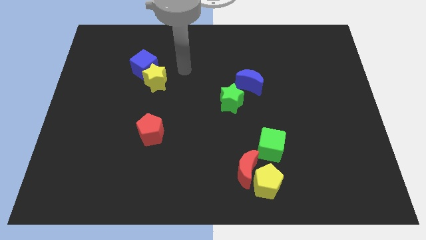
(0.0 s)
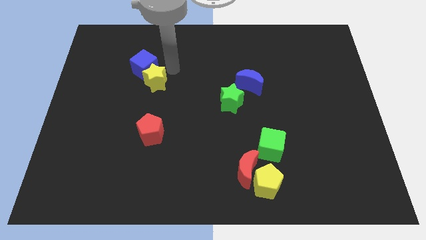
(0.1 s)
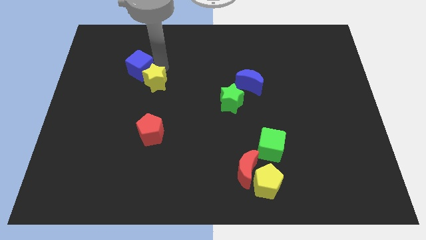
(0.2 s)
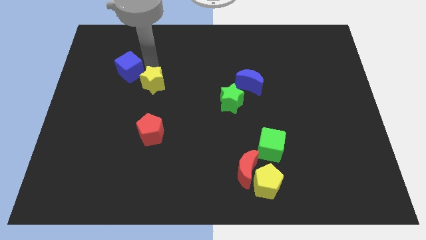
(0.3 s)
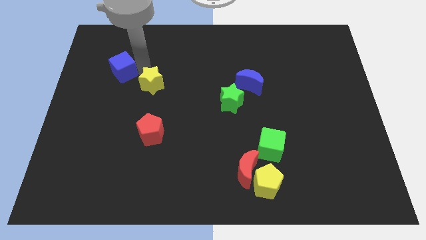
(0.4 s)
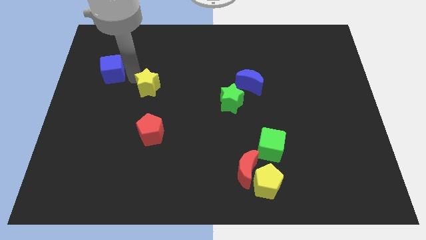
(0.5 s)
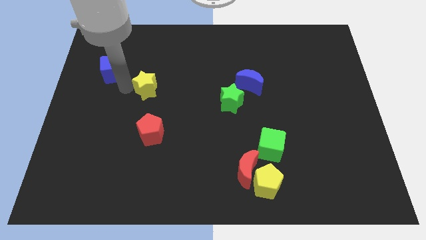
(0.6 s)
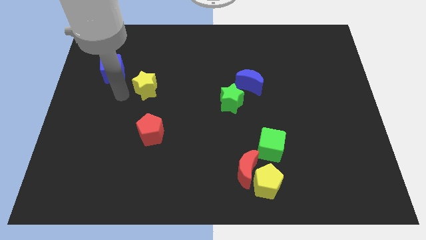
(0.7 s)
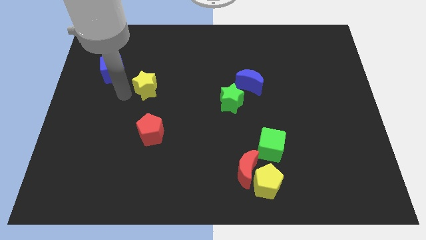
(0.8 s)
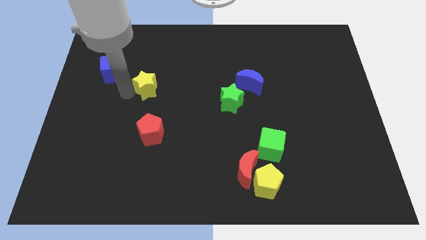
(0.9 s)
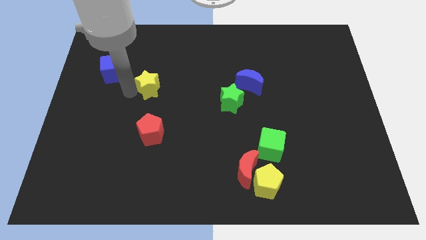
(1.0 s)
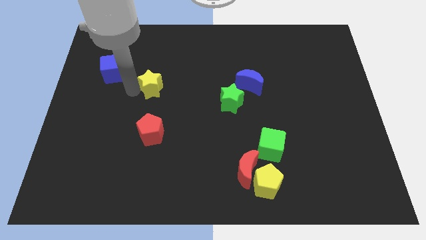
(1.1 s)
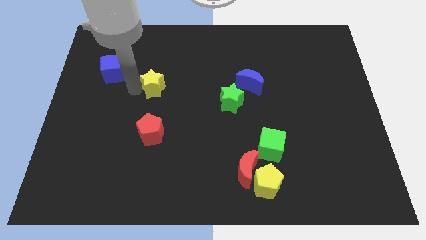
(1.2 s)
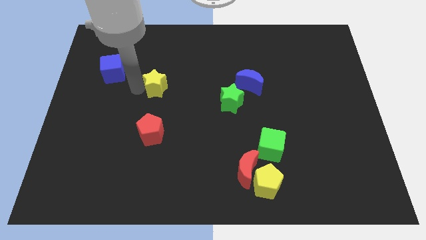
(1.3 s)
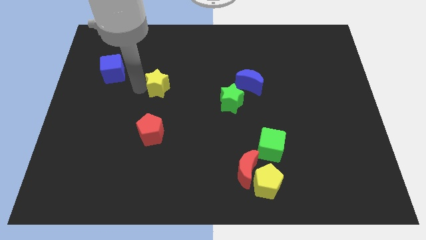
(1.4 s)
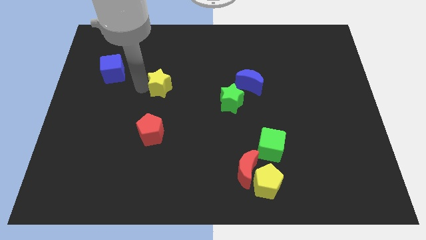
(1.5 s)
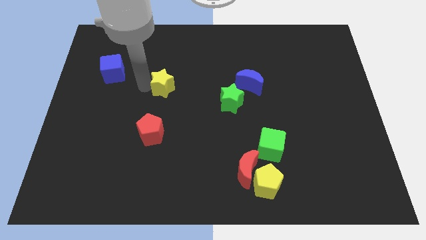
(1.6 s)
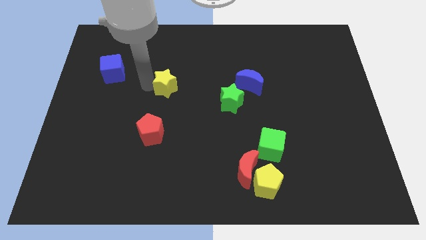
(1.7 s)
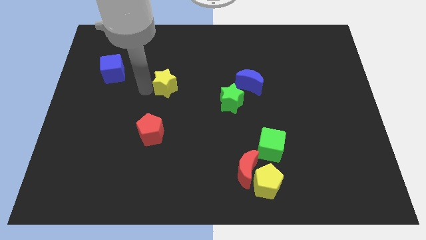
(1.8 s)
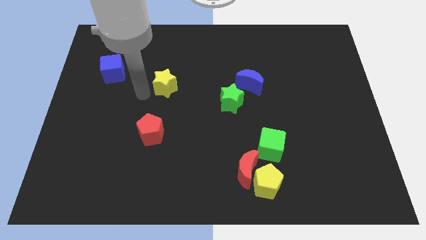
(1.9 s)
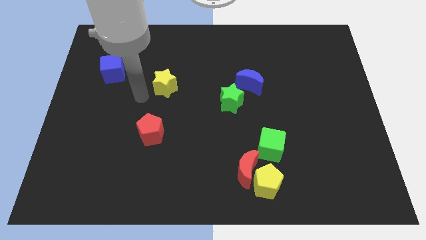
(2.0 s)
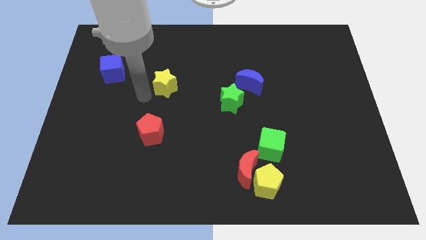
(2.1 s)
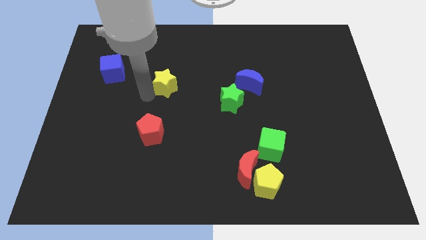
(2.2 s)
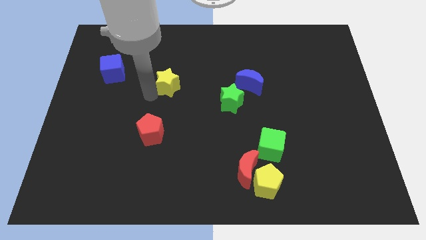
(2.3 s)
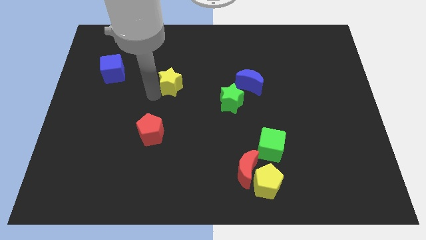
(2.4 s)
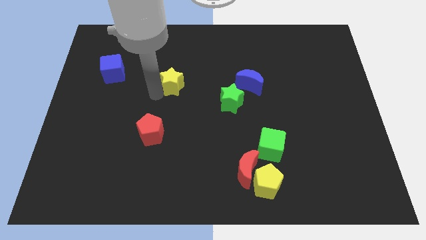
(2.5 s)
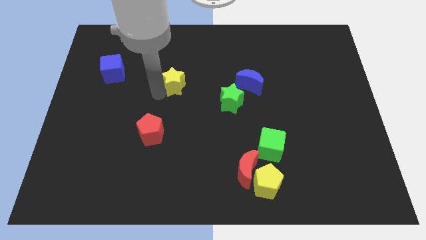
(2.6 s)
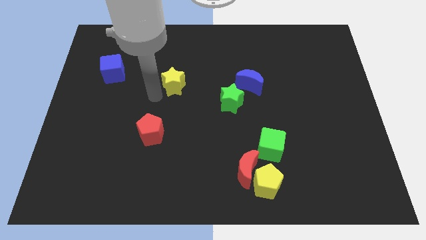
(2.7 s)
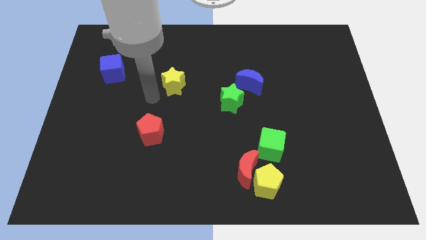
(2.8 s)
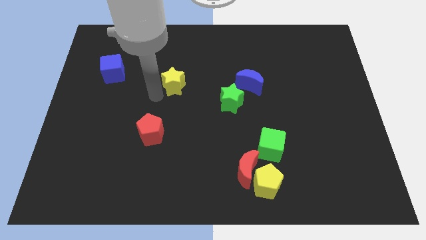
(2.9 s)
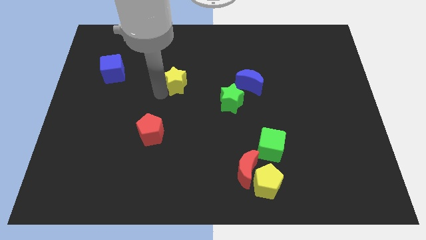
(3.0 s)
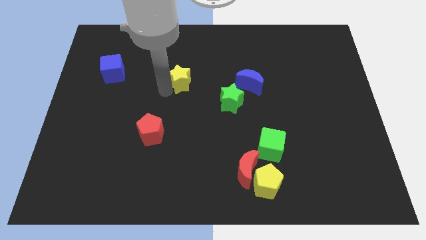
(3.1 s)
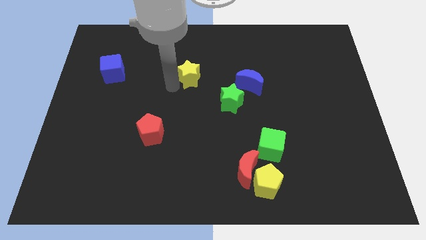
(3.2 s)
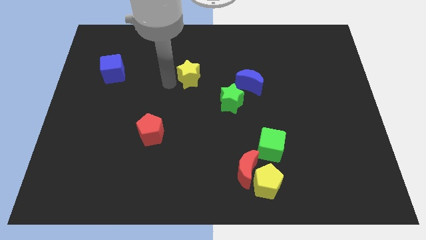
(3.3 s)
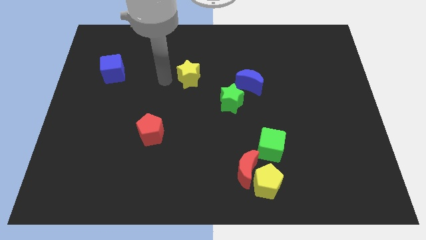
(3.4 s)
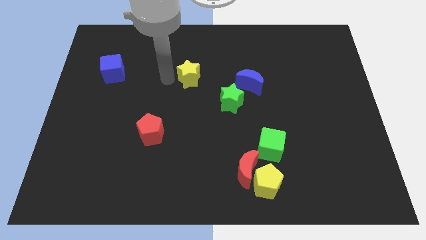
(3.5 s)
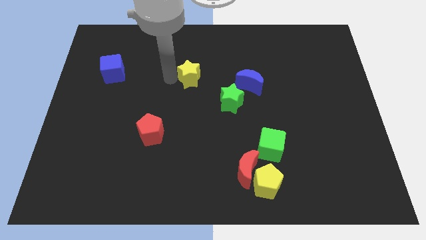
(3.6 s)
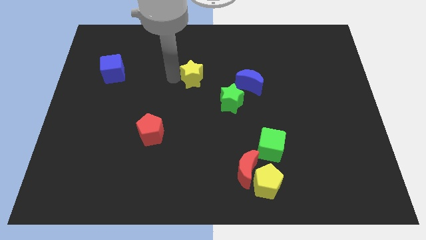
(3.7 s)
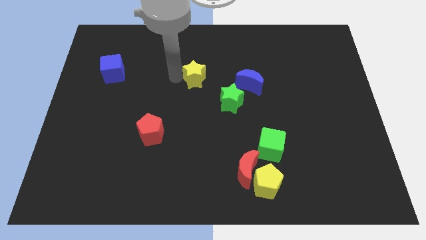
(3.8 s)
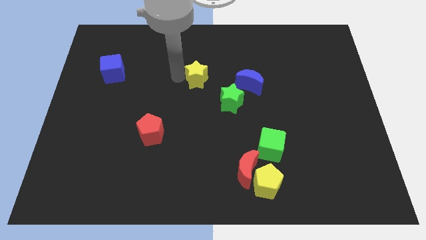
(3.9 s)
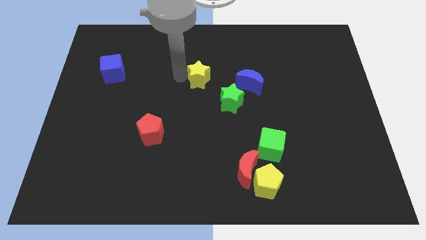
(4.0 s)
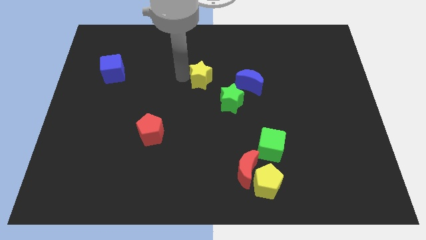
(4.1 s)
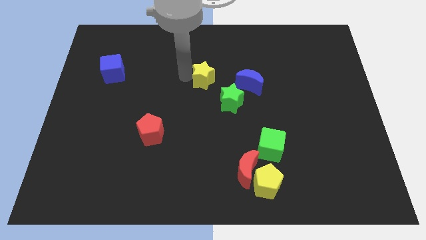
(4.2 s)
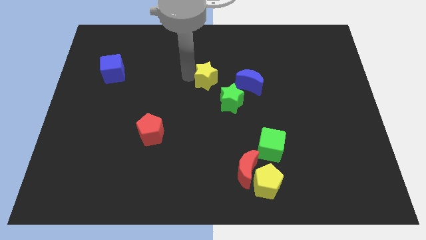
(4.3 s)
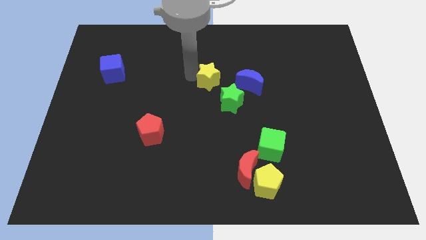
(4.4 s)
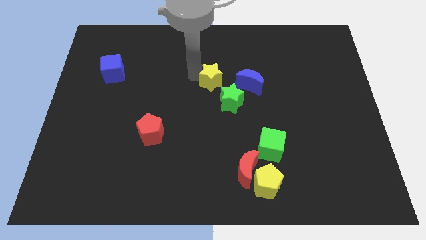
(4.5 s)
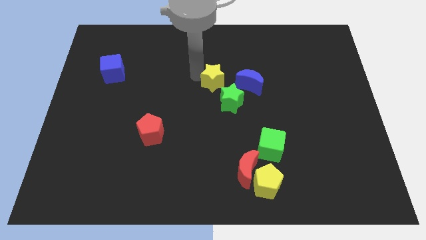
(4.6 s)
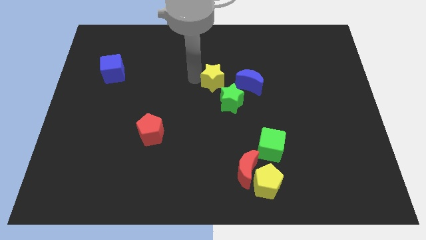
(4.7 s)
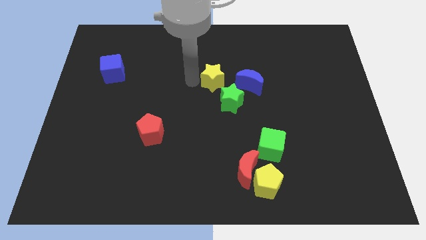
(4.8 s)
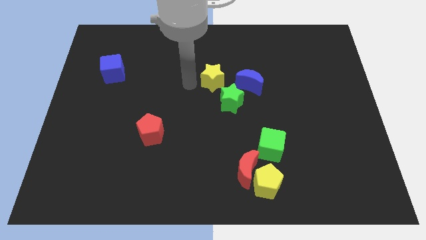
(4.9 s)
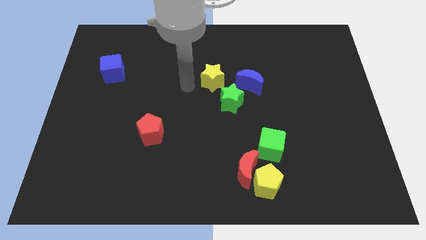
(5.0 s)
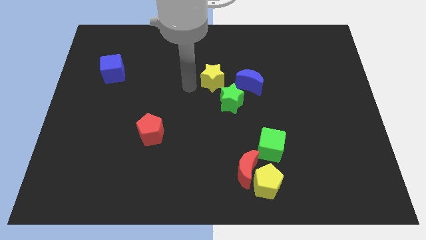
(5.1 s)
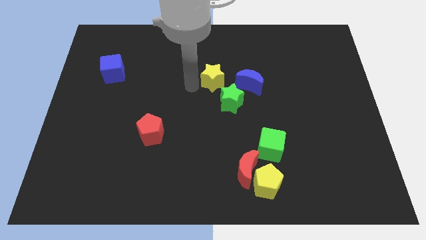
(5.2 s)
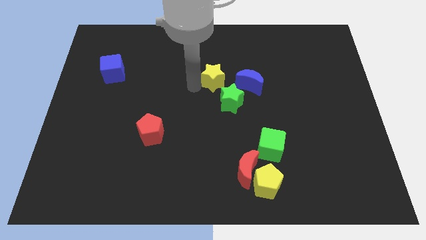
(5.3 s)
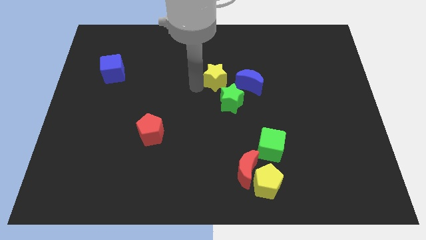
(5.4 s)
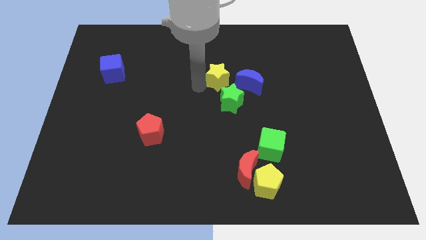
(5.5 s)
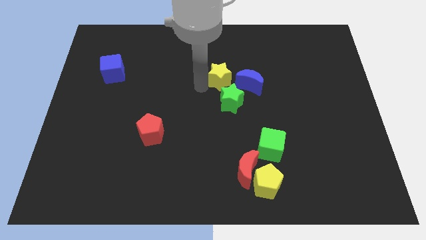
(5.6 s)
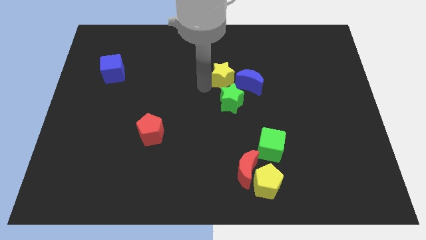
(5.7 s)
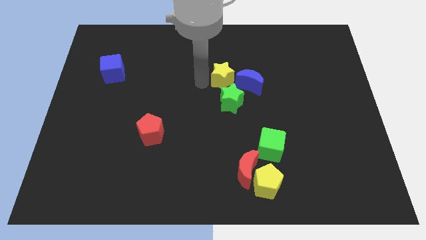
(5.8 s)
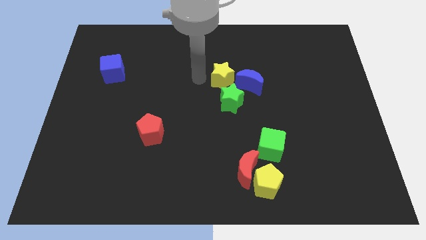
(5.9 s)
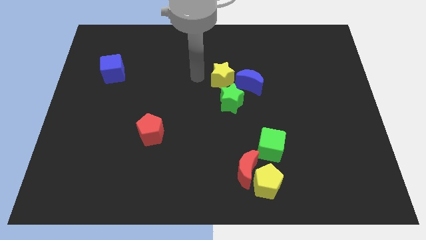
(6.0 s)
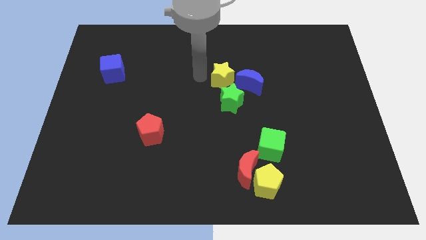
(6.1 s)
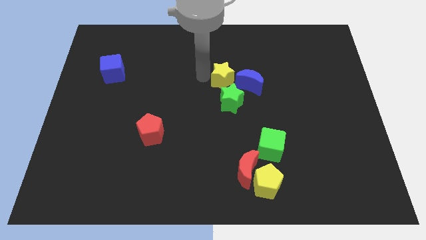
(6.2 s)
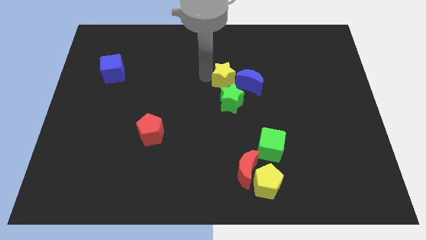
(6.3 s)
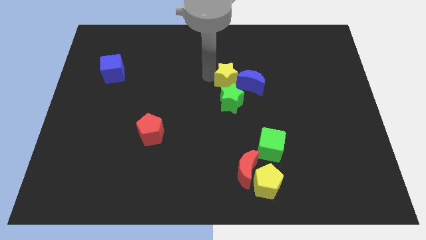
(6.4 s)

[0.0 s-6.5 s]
push the yellow star to the blue moon

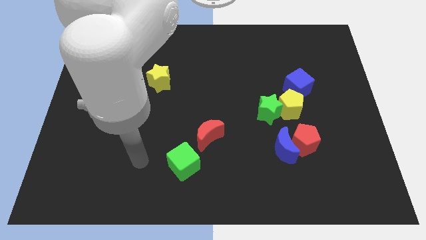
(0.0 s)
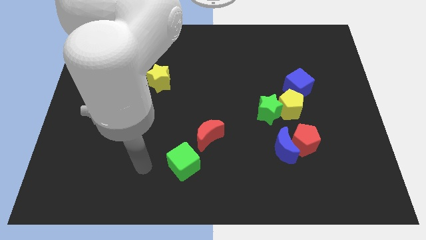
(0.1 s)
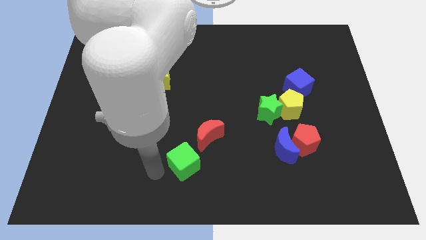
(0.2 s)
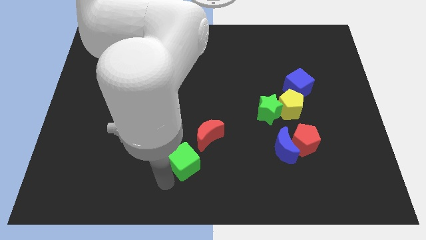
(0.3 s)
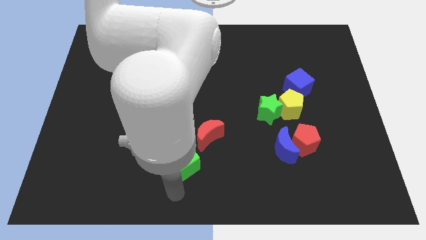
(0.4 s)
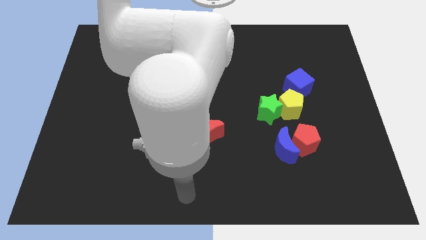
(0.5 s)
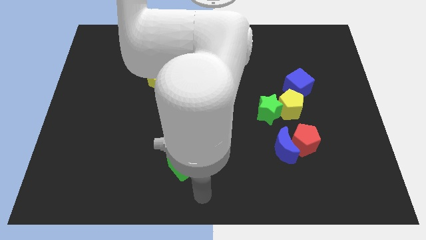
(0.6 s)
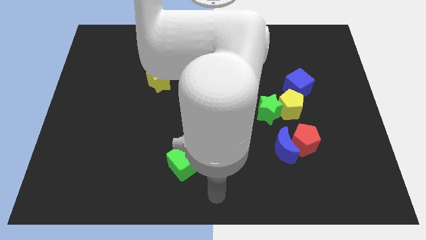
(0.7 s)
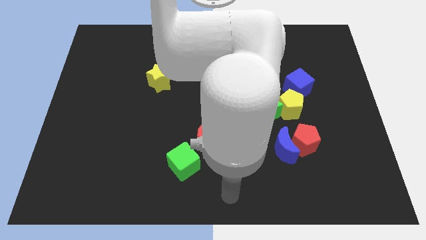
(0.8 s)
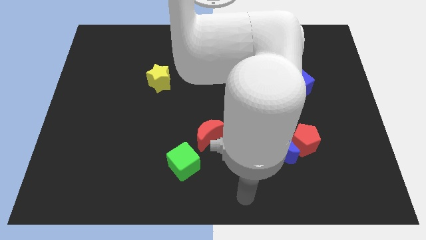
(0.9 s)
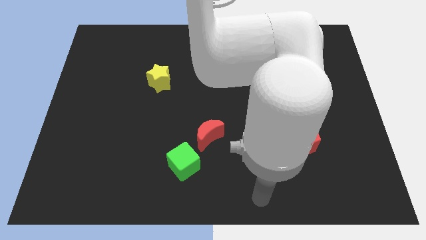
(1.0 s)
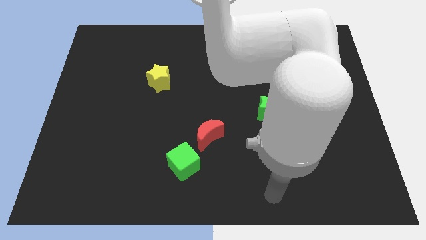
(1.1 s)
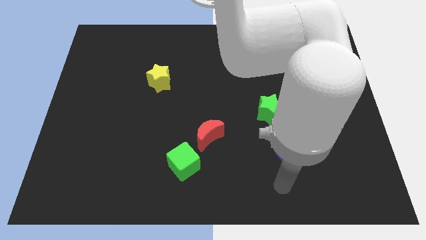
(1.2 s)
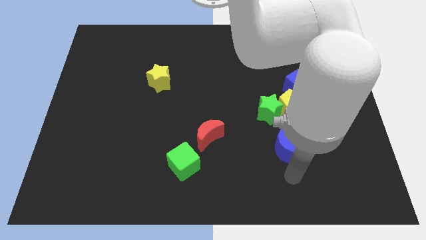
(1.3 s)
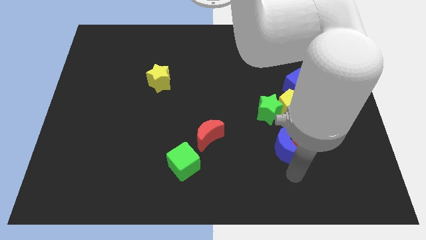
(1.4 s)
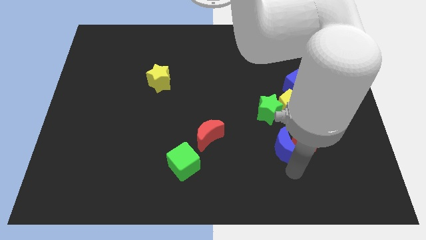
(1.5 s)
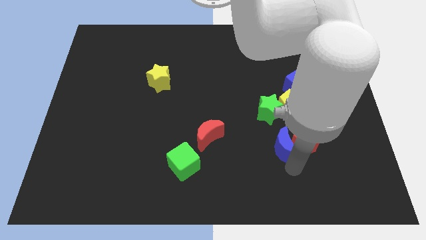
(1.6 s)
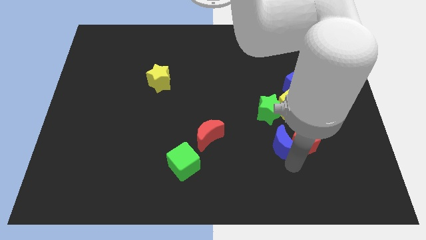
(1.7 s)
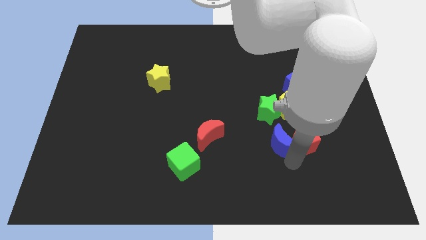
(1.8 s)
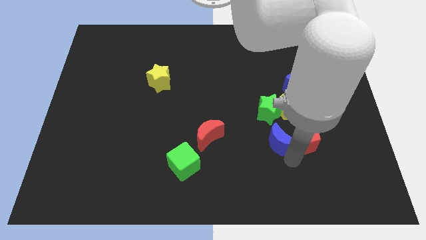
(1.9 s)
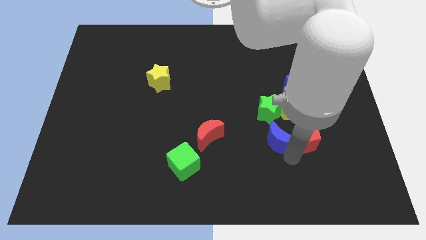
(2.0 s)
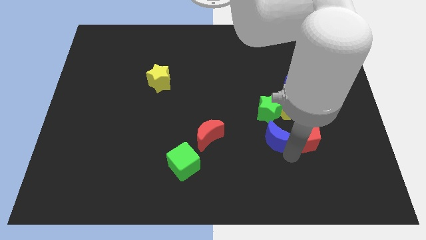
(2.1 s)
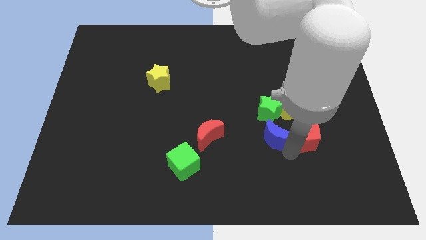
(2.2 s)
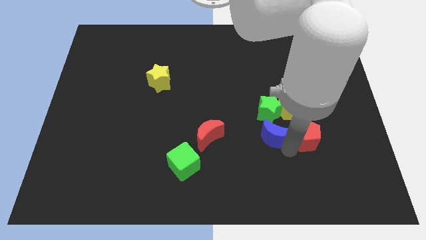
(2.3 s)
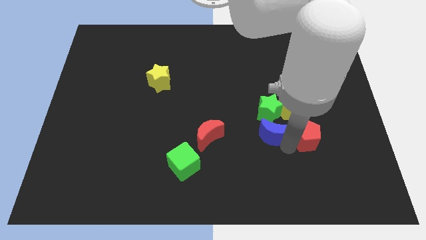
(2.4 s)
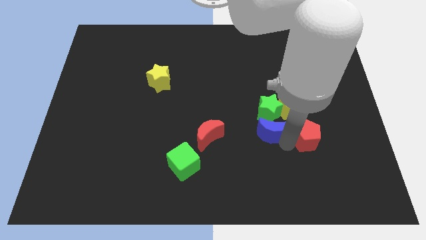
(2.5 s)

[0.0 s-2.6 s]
move the blue moon towards the green star
